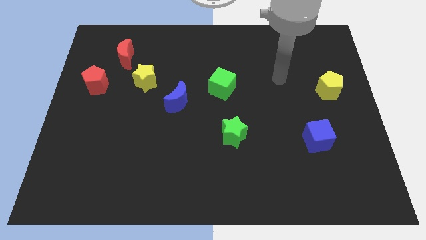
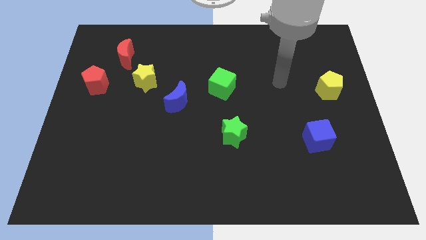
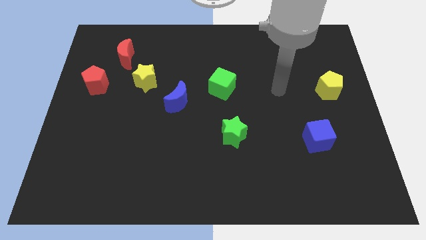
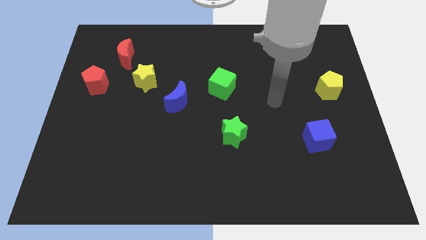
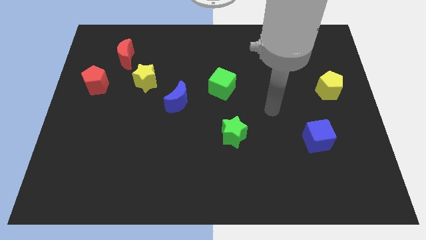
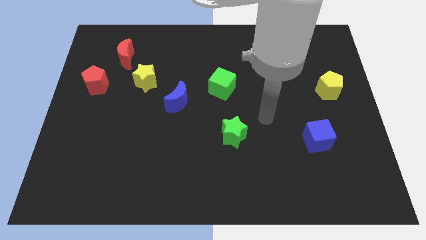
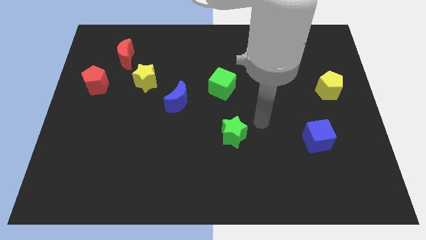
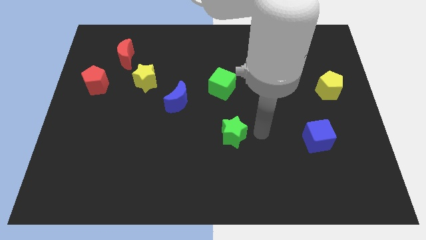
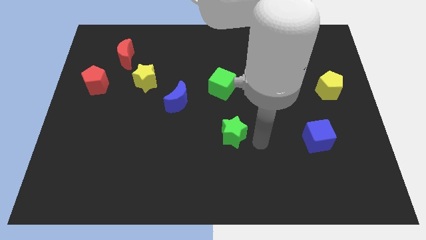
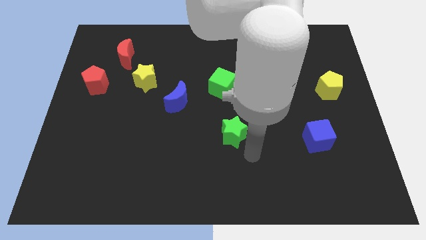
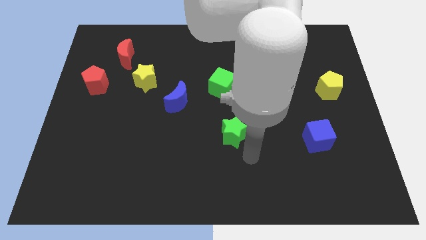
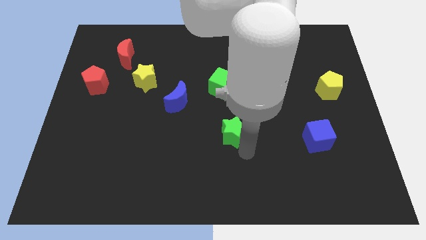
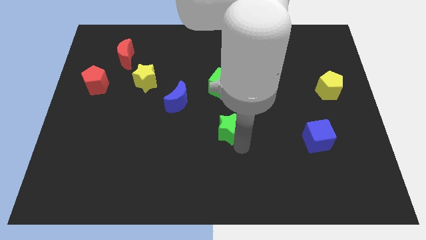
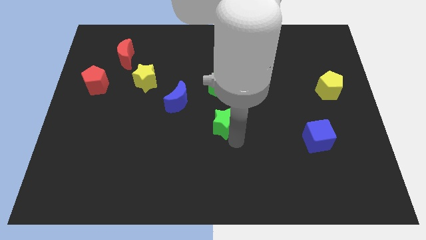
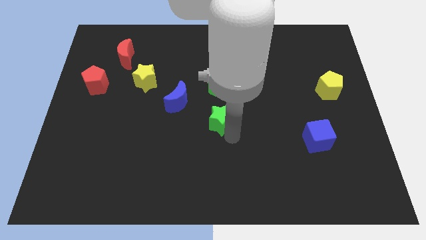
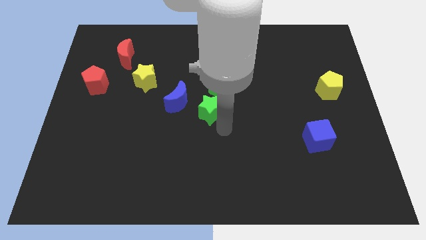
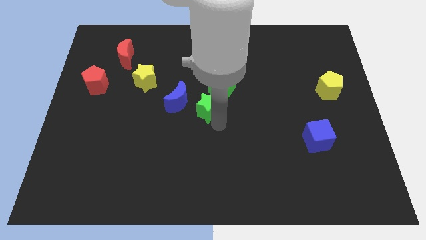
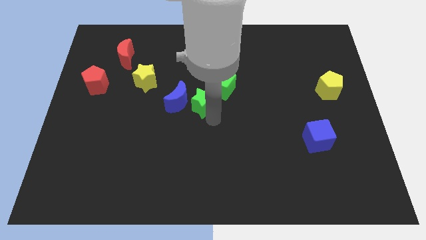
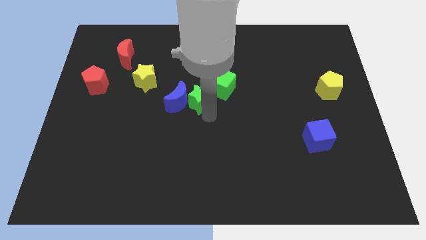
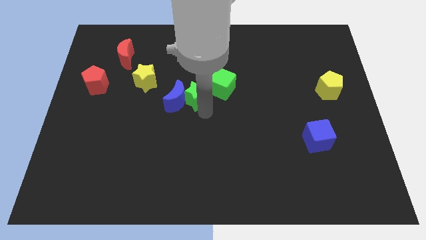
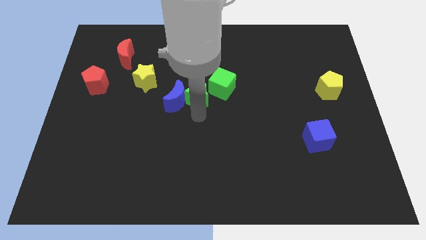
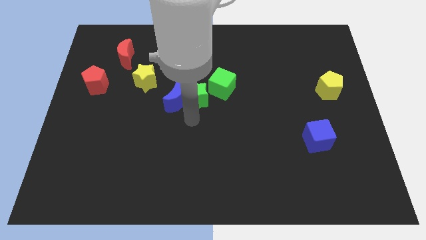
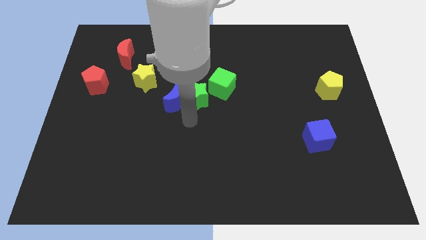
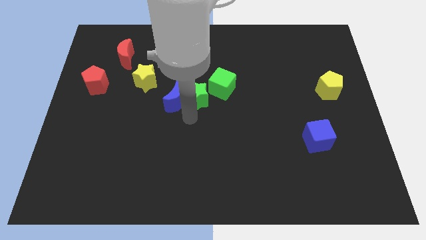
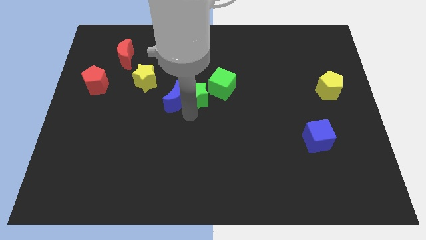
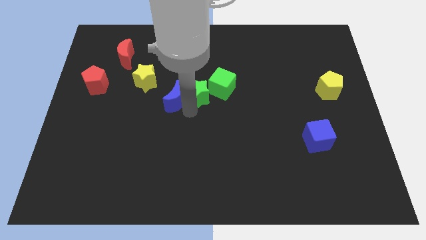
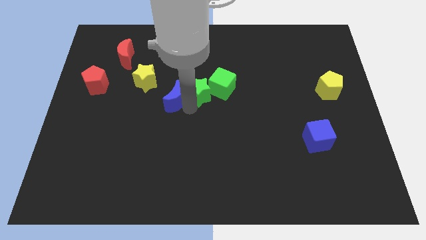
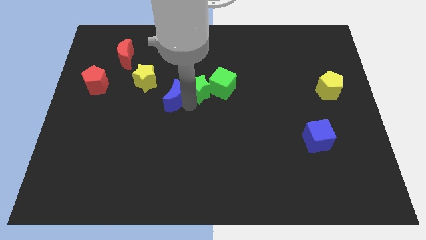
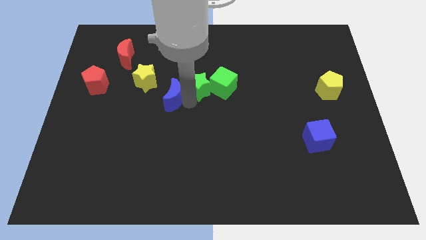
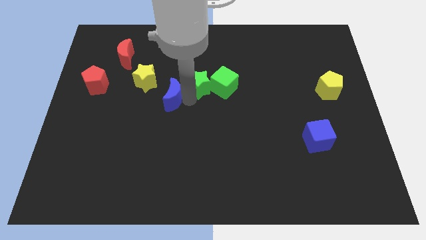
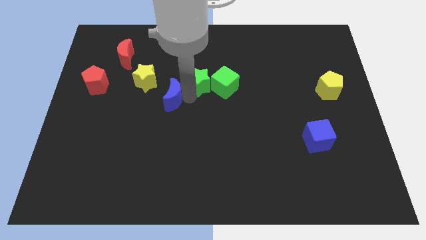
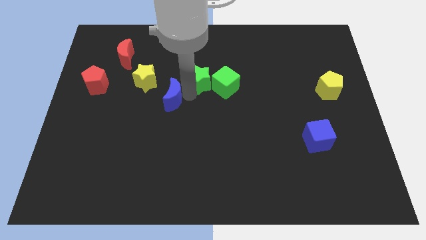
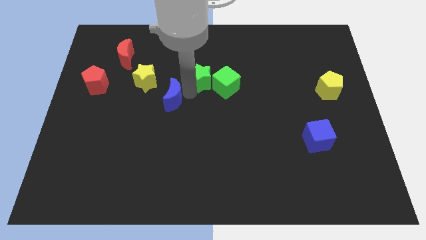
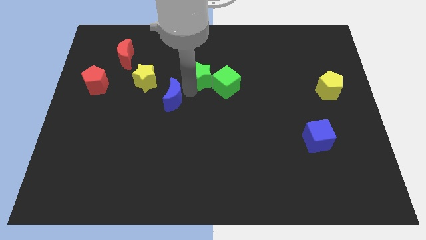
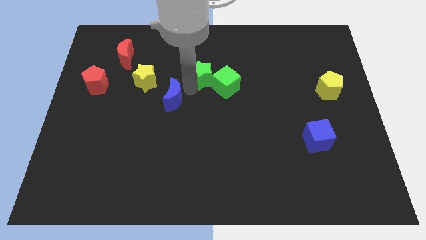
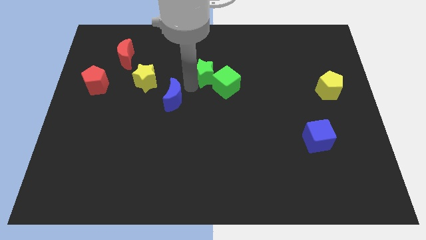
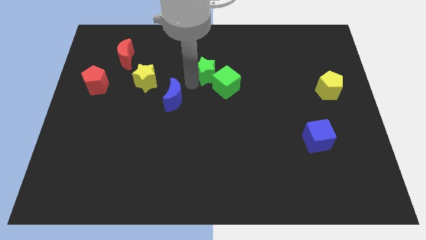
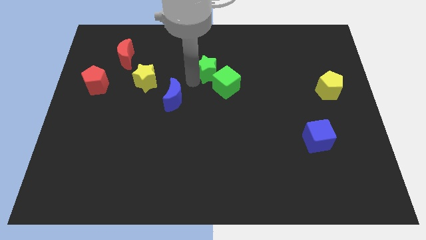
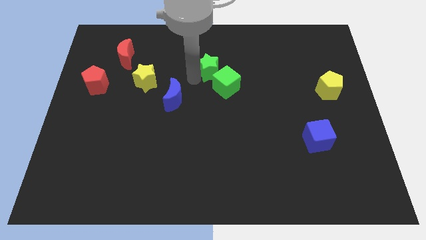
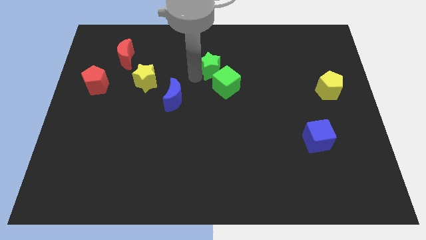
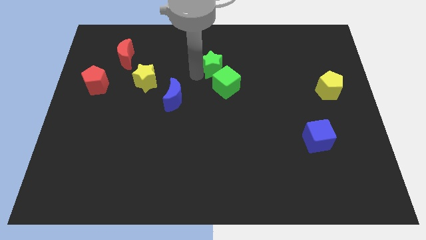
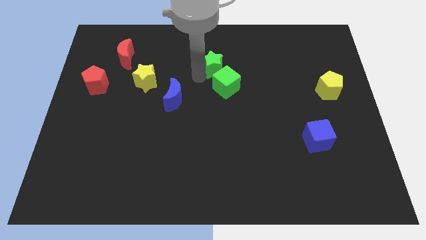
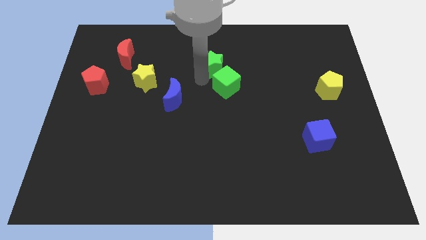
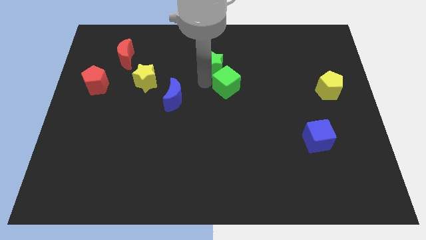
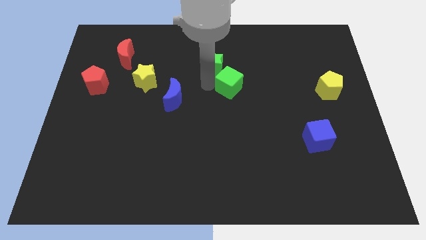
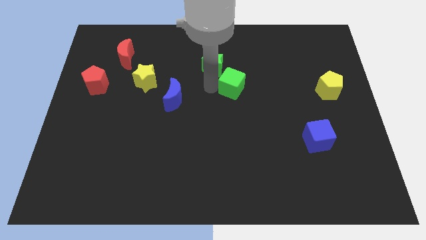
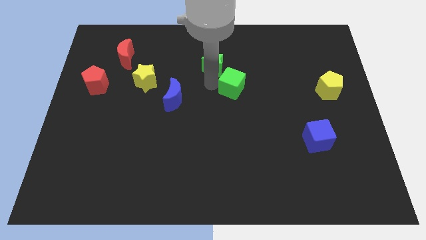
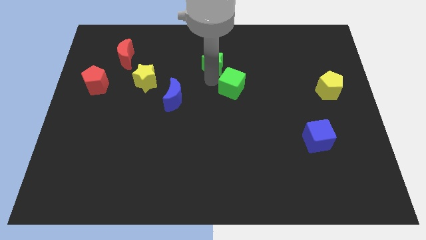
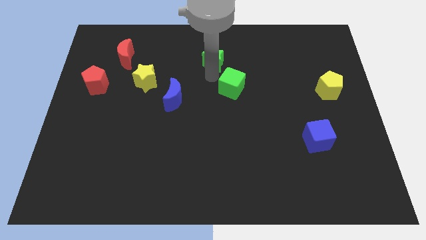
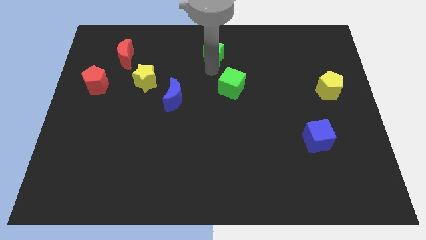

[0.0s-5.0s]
slide the green star to the top

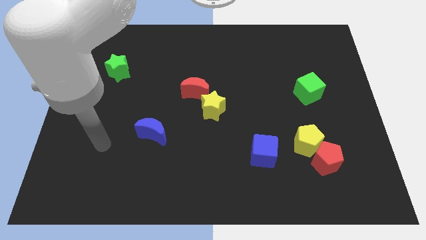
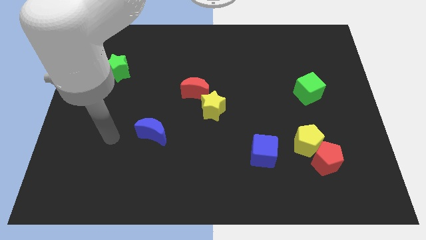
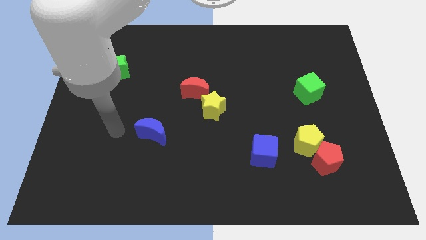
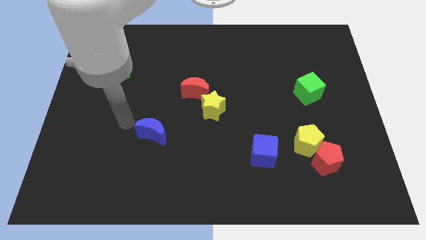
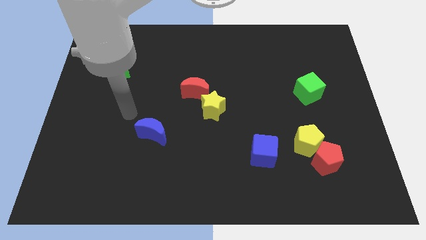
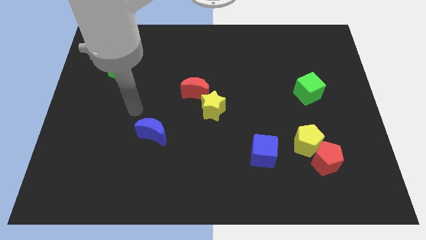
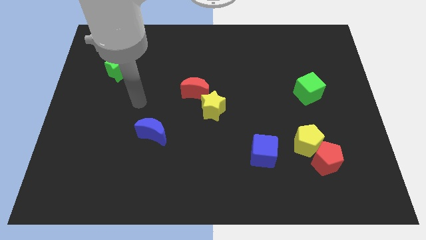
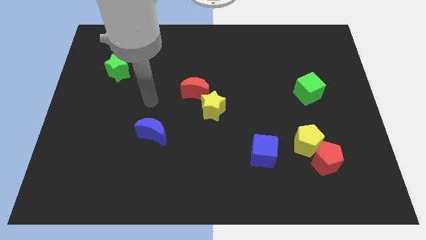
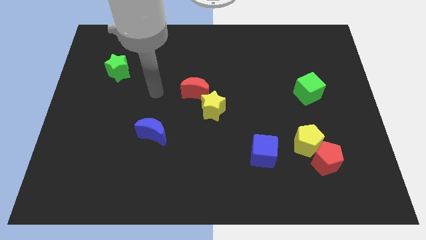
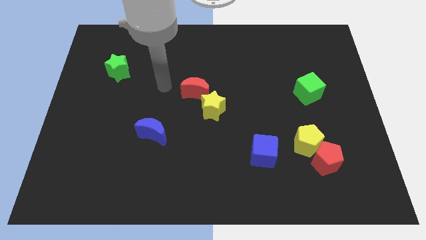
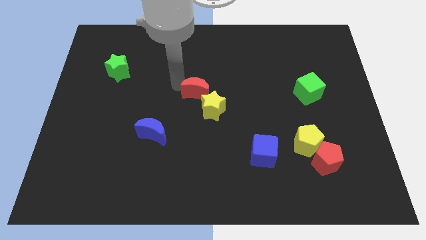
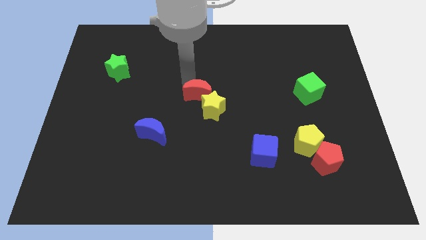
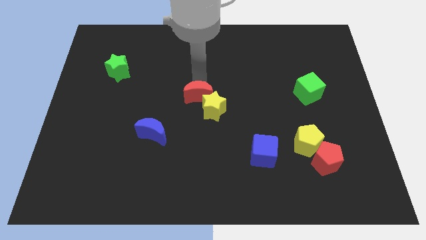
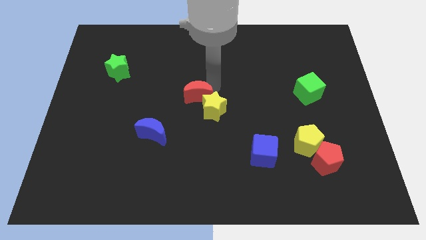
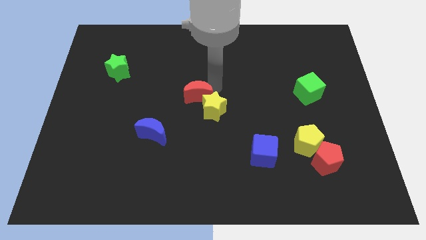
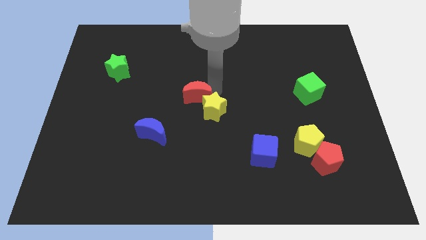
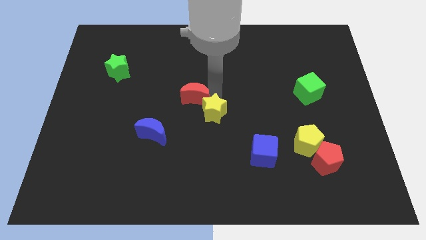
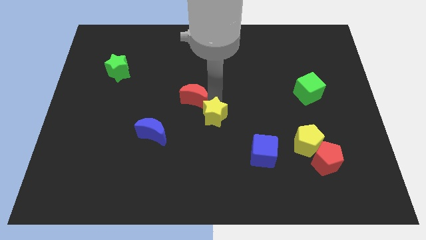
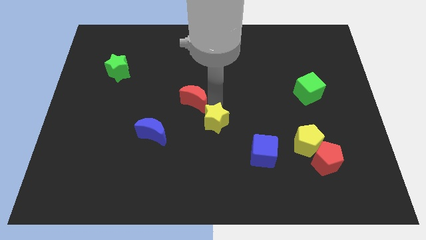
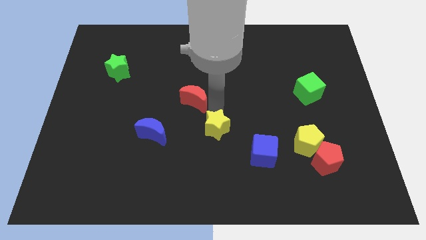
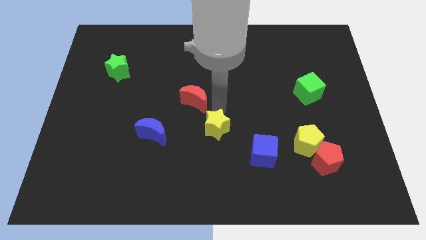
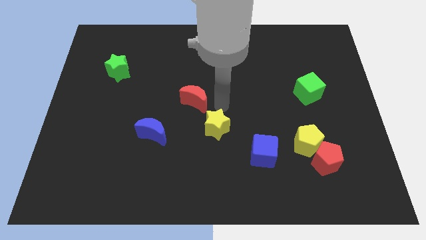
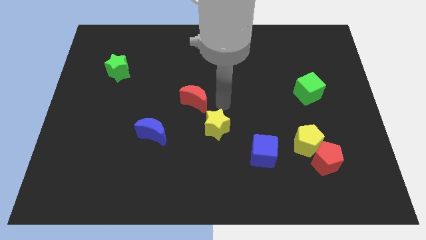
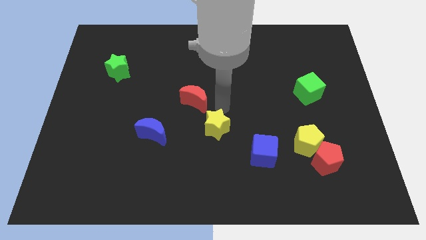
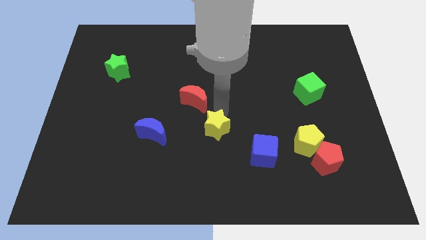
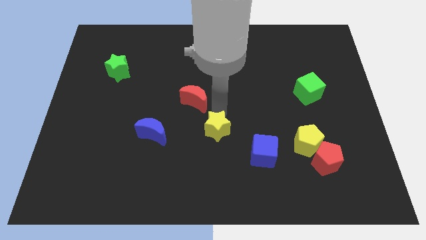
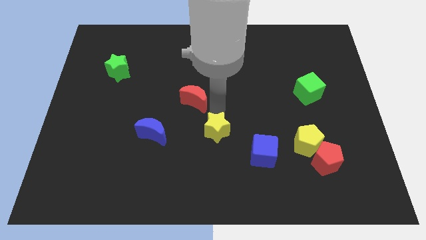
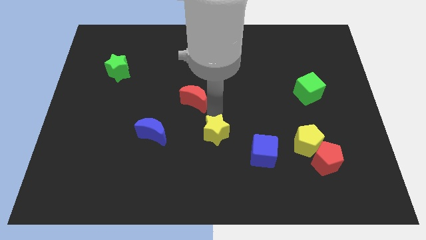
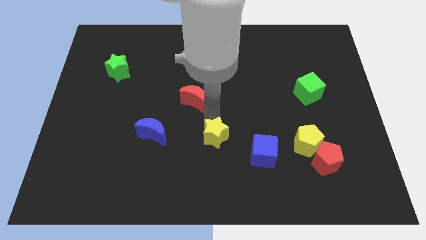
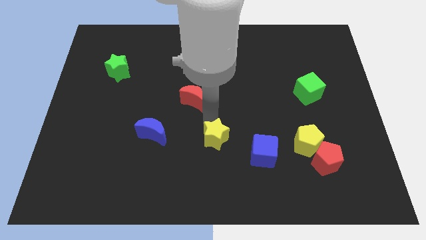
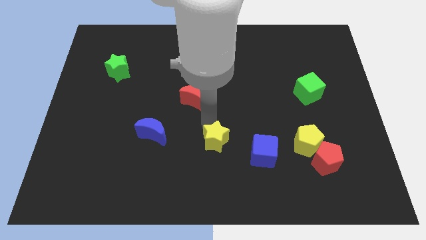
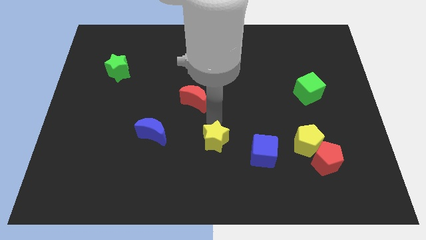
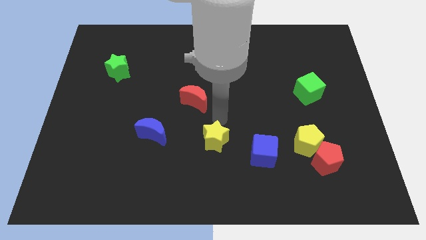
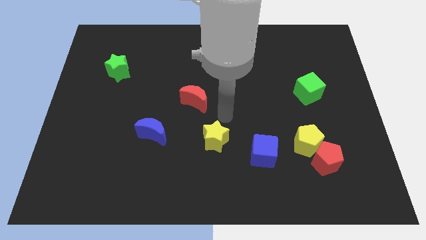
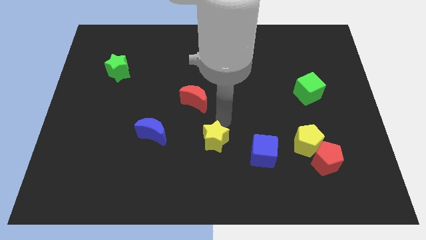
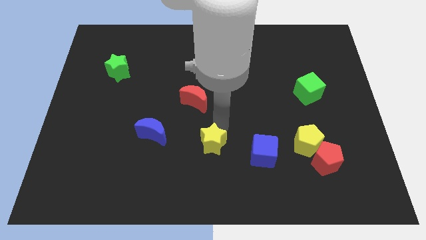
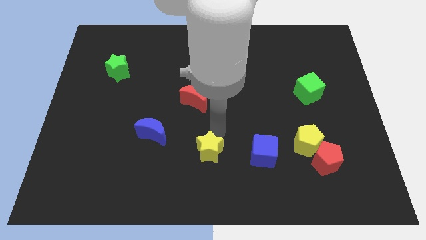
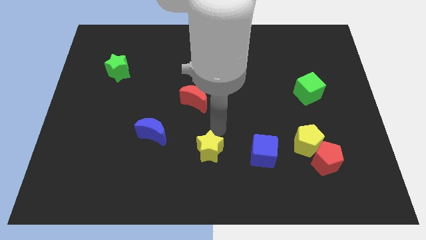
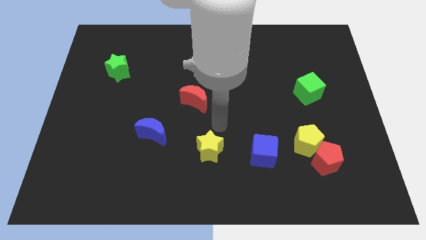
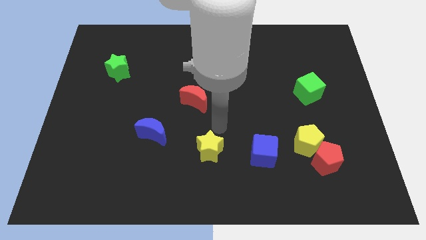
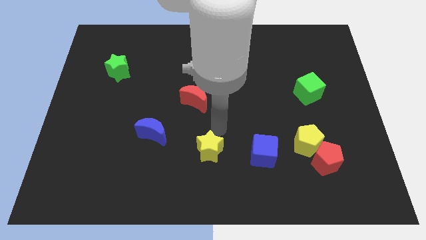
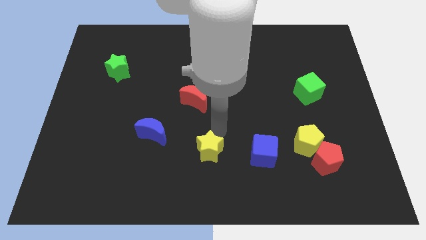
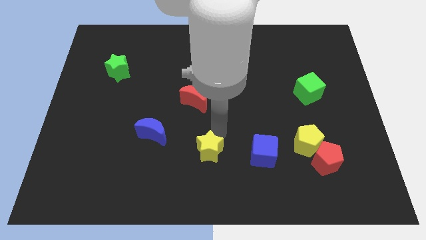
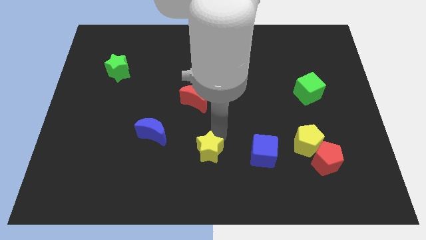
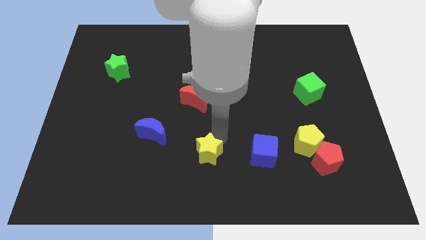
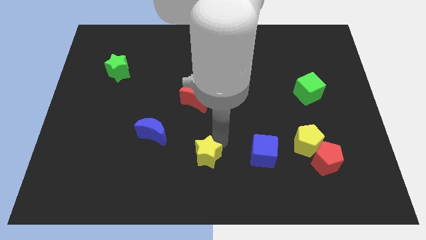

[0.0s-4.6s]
slide the yellow star to the bottom side
